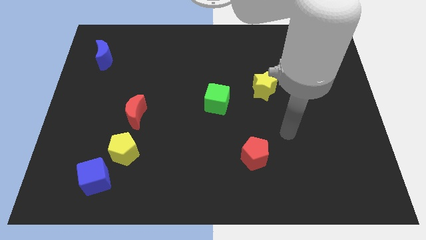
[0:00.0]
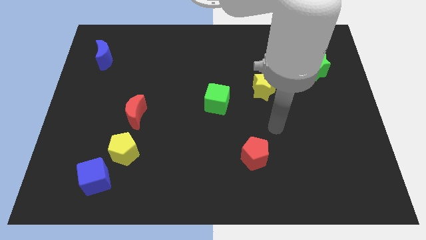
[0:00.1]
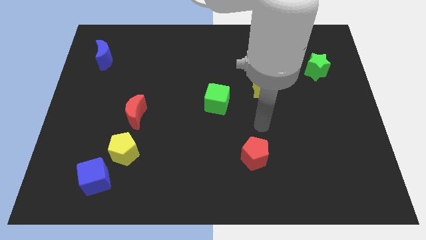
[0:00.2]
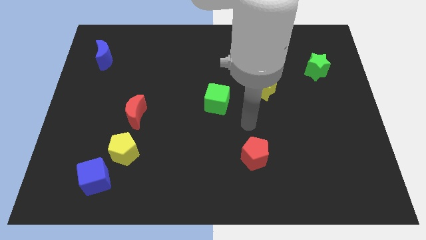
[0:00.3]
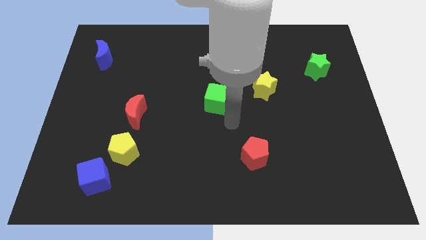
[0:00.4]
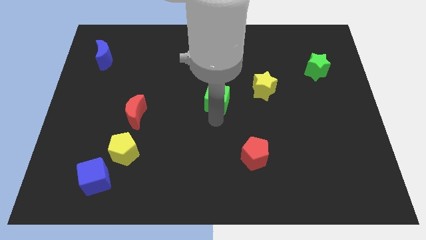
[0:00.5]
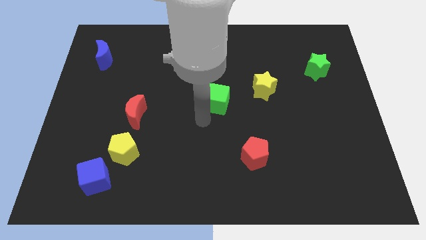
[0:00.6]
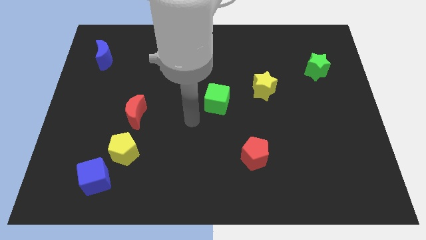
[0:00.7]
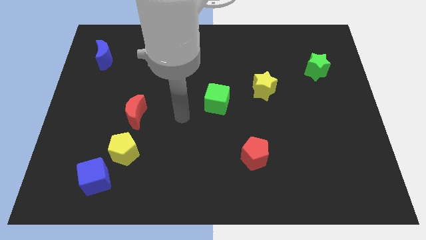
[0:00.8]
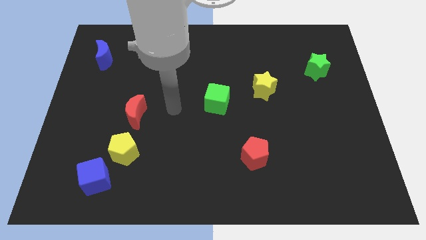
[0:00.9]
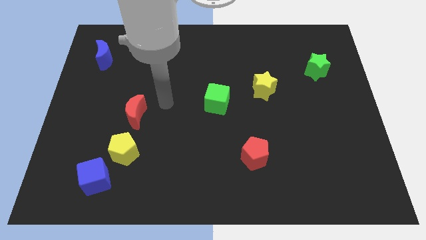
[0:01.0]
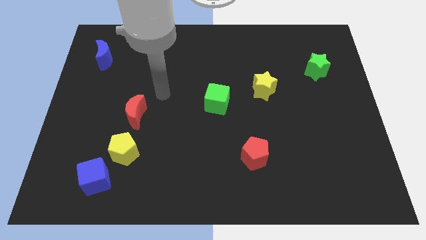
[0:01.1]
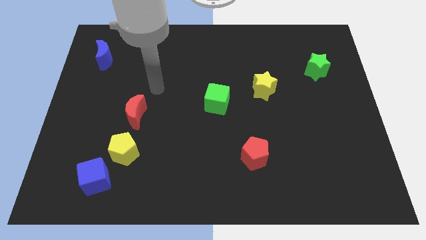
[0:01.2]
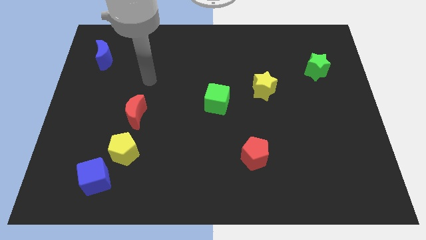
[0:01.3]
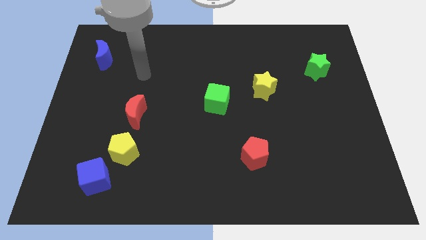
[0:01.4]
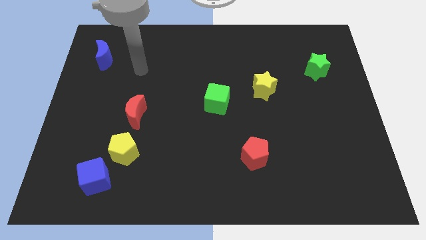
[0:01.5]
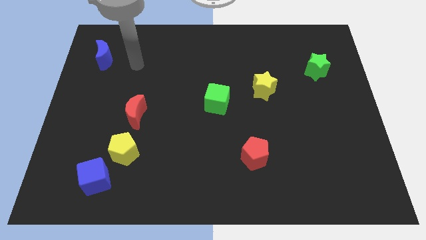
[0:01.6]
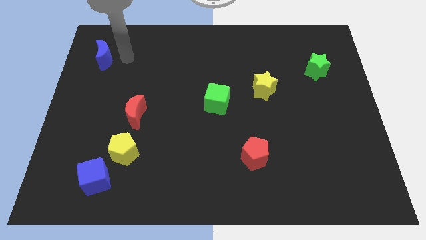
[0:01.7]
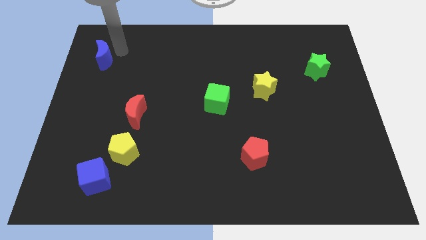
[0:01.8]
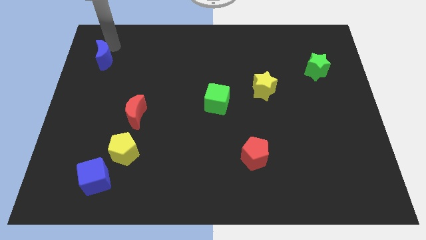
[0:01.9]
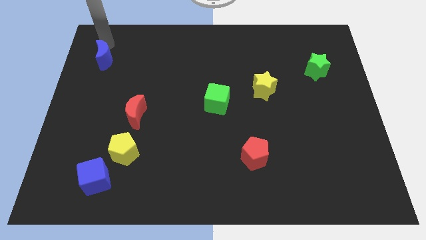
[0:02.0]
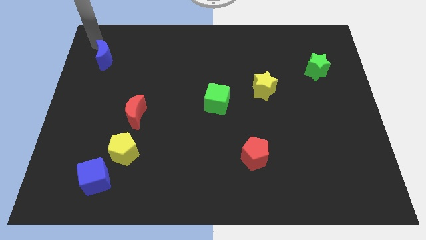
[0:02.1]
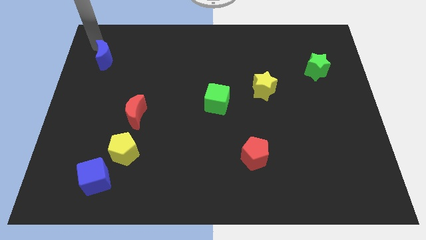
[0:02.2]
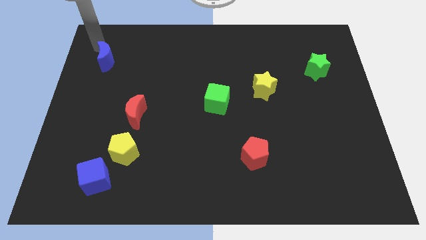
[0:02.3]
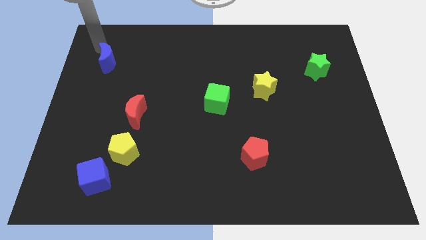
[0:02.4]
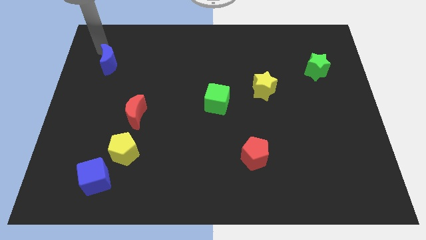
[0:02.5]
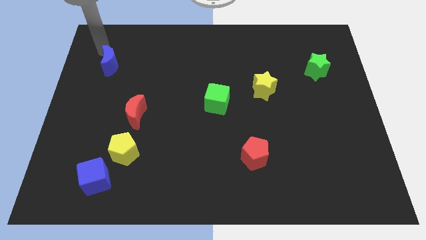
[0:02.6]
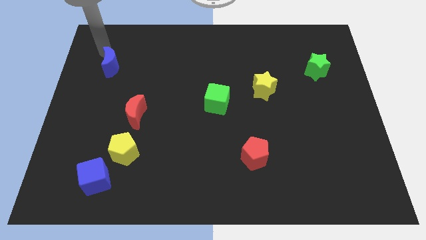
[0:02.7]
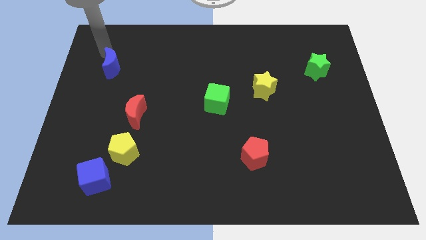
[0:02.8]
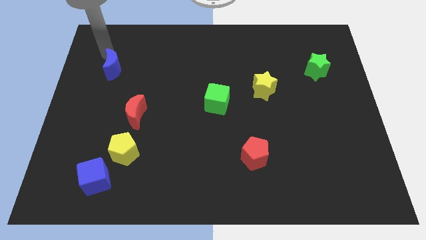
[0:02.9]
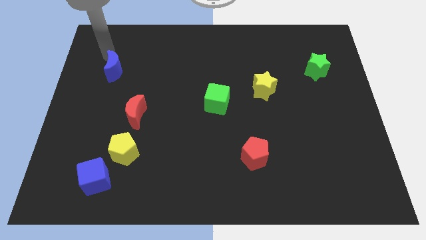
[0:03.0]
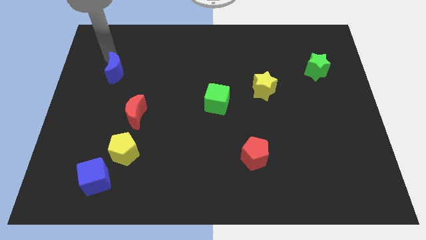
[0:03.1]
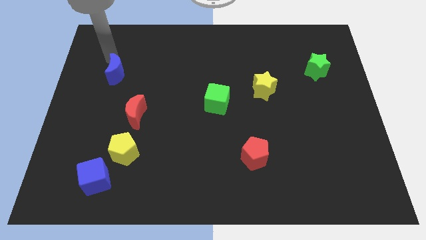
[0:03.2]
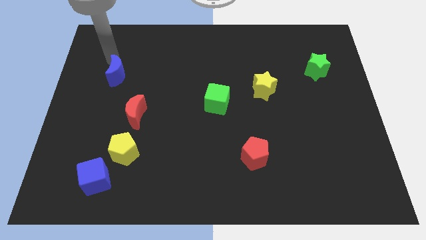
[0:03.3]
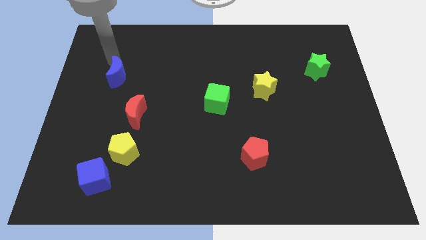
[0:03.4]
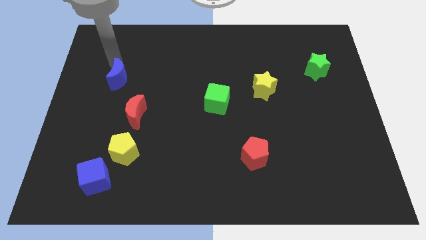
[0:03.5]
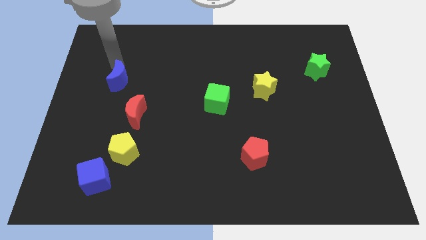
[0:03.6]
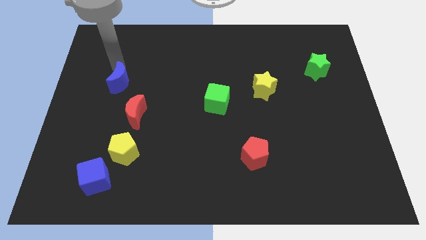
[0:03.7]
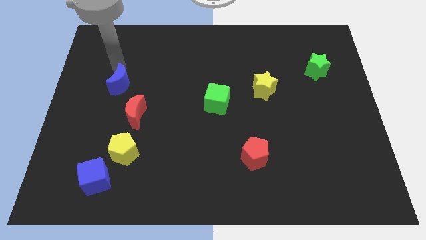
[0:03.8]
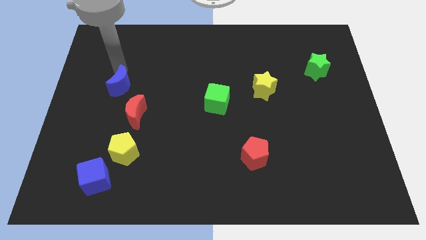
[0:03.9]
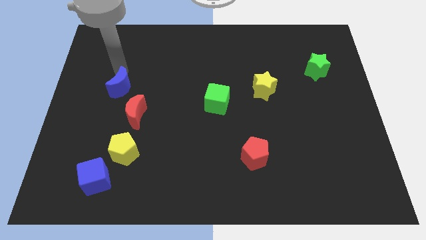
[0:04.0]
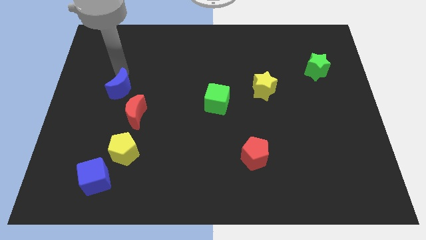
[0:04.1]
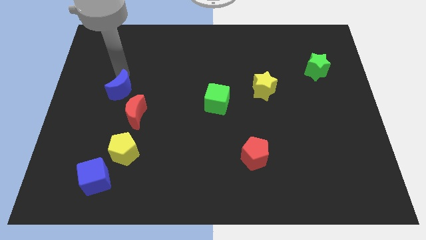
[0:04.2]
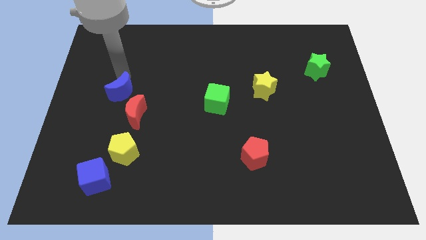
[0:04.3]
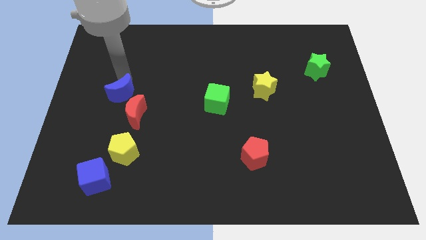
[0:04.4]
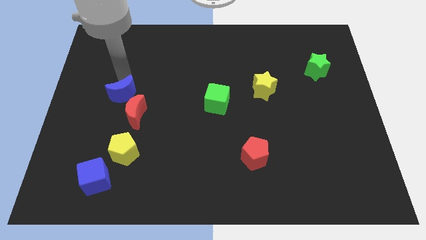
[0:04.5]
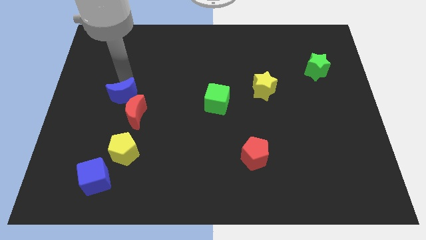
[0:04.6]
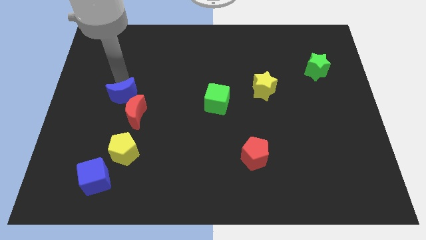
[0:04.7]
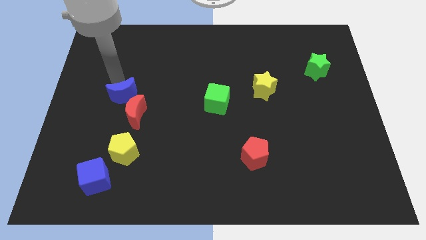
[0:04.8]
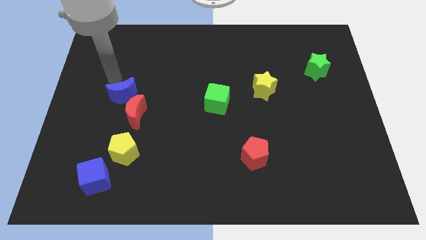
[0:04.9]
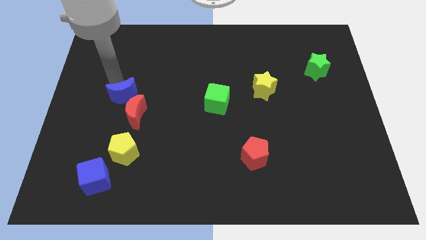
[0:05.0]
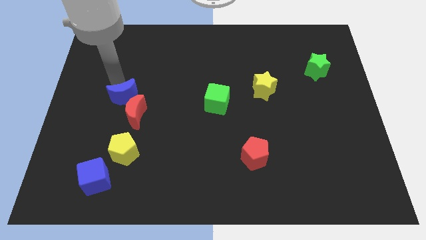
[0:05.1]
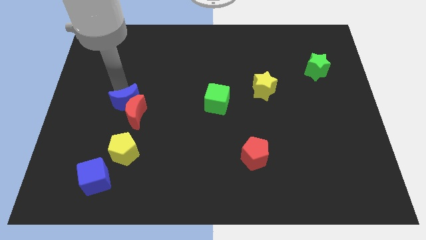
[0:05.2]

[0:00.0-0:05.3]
push the blue moon towards the red moon
